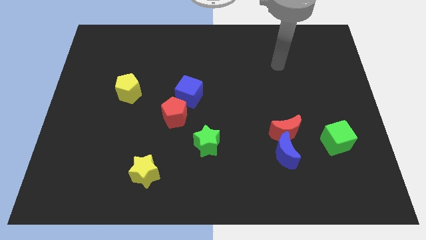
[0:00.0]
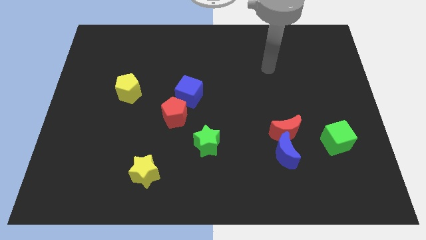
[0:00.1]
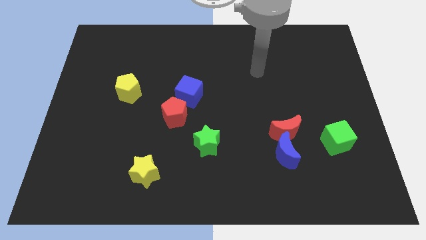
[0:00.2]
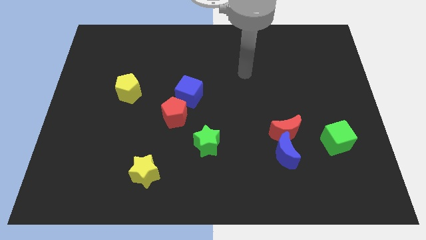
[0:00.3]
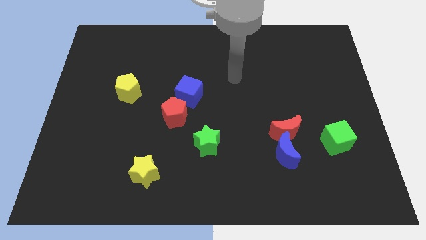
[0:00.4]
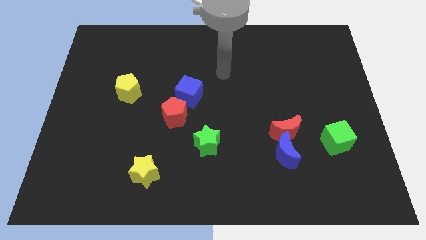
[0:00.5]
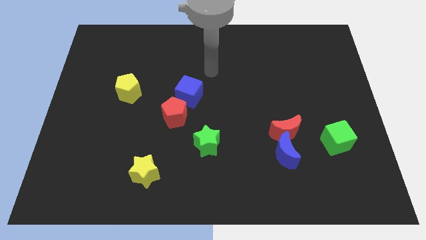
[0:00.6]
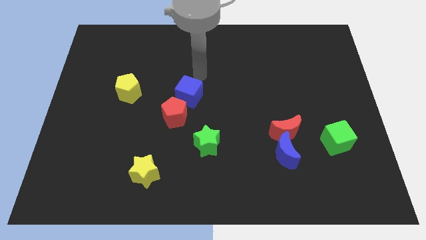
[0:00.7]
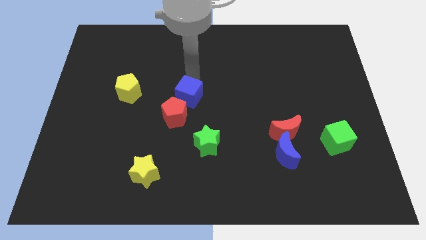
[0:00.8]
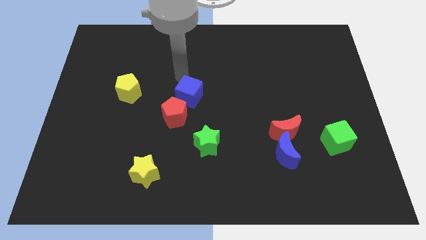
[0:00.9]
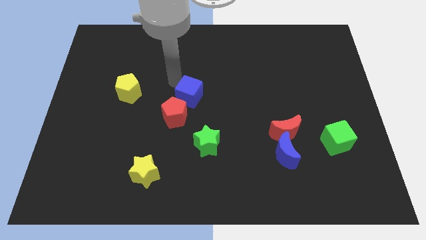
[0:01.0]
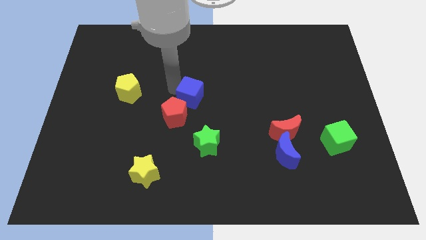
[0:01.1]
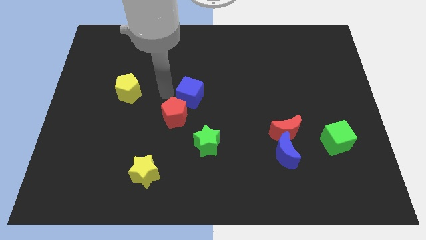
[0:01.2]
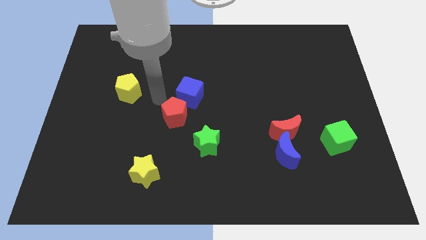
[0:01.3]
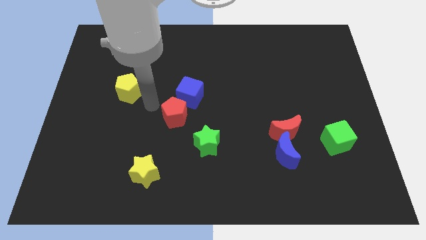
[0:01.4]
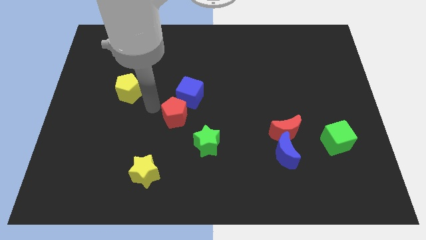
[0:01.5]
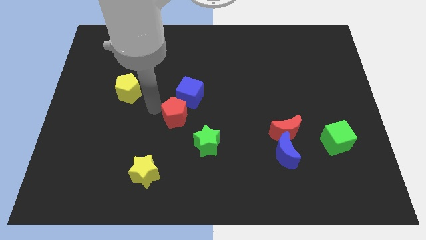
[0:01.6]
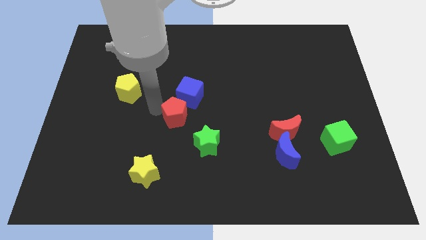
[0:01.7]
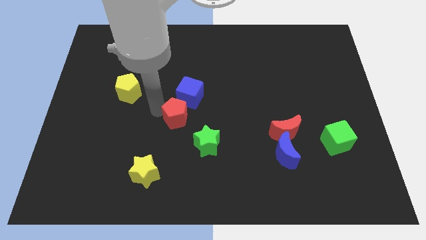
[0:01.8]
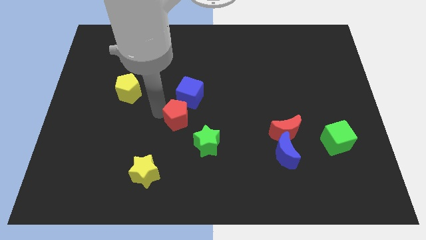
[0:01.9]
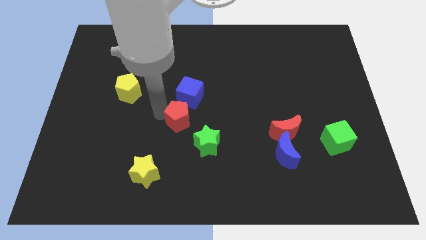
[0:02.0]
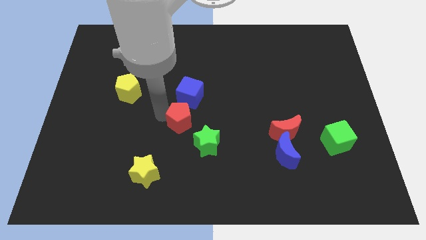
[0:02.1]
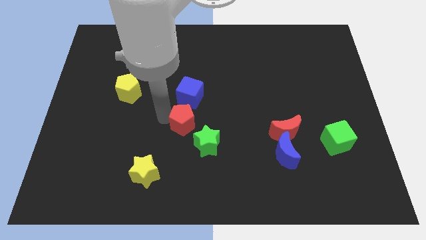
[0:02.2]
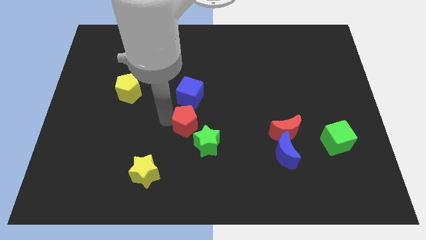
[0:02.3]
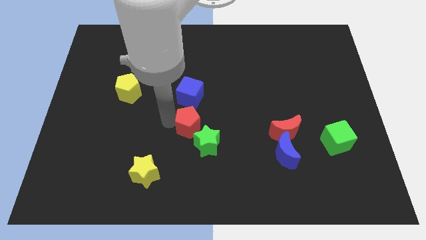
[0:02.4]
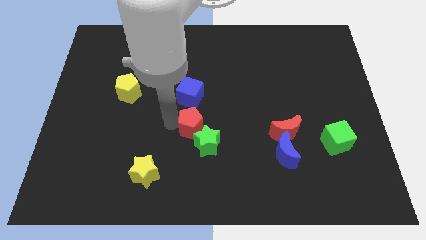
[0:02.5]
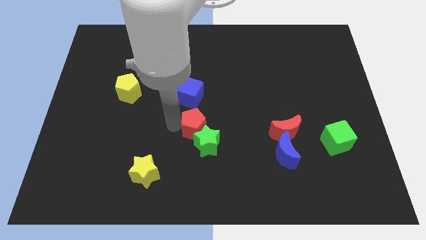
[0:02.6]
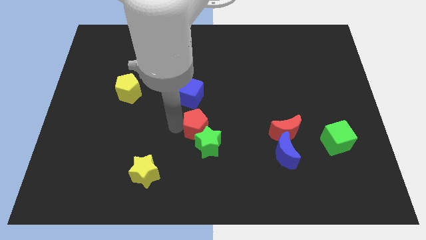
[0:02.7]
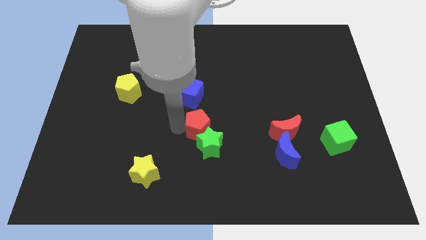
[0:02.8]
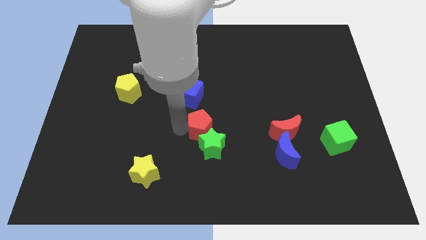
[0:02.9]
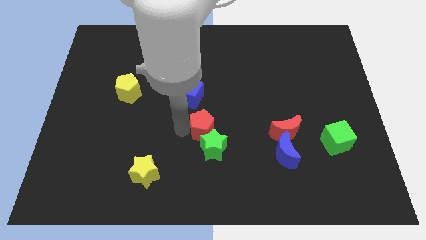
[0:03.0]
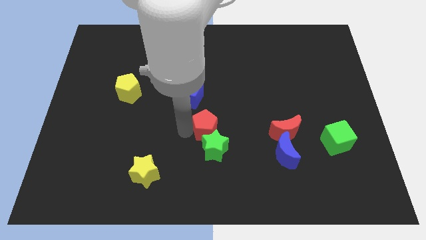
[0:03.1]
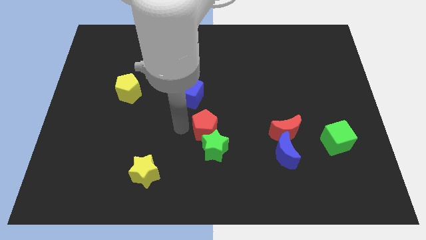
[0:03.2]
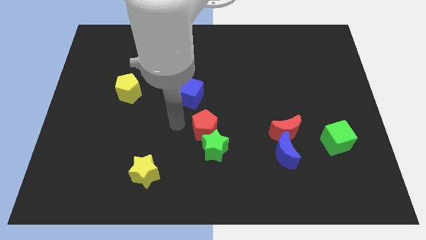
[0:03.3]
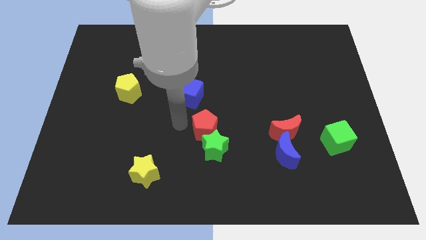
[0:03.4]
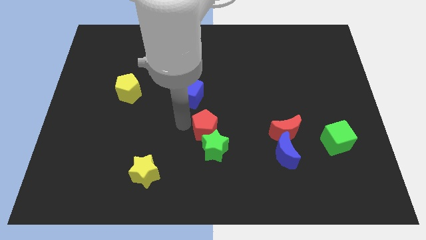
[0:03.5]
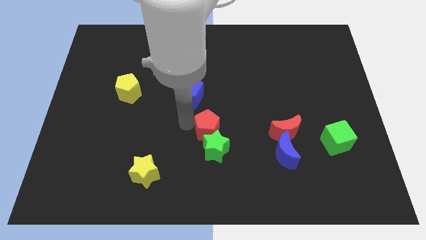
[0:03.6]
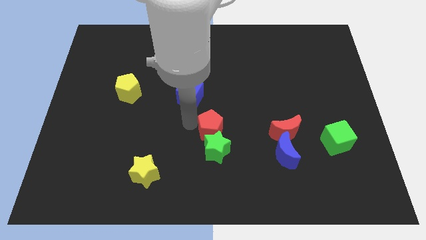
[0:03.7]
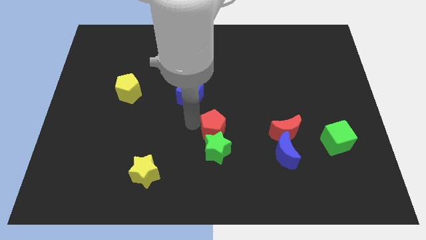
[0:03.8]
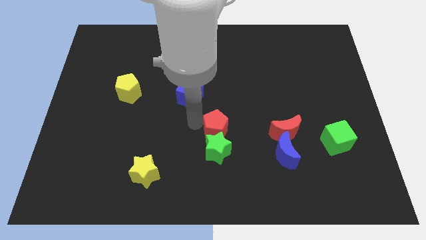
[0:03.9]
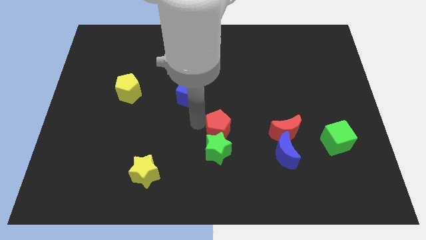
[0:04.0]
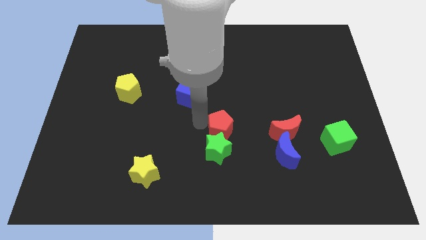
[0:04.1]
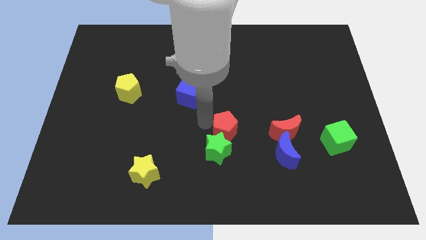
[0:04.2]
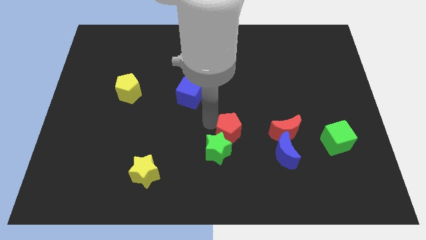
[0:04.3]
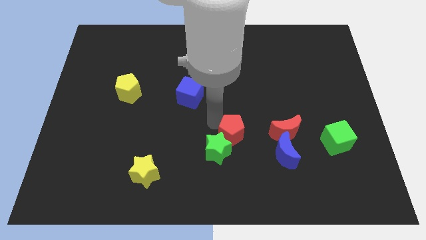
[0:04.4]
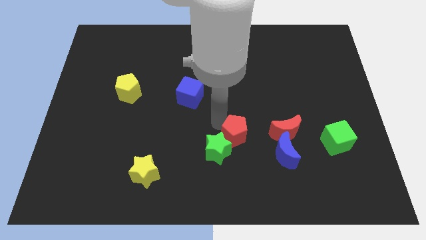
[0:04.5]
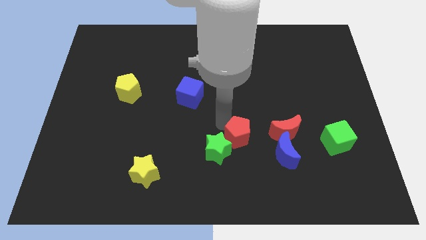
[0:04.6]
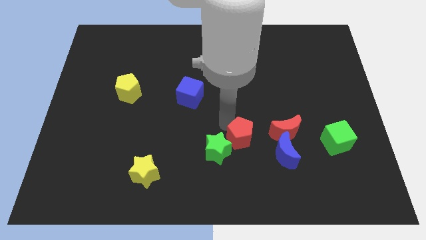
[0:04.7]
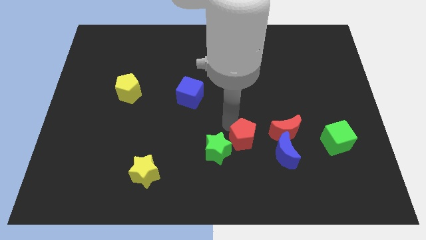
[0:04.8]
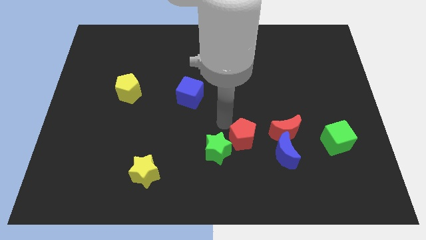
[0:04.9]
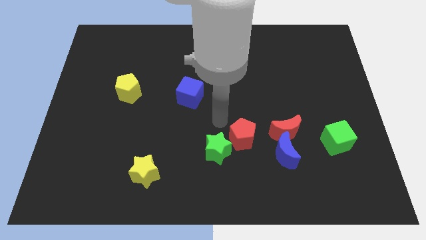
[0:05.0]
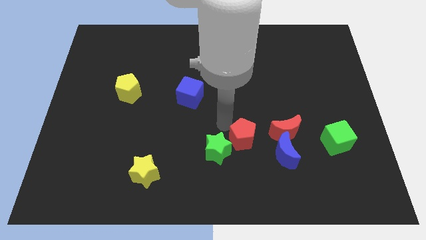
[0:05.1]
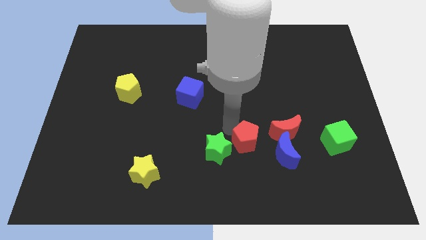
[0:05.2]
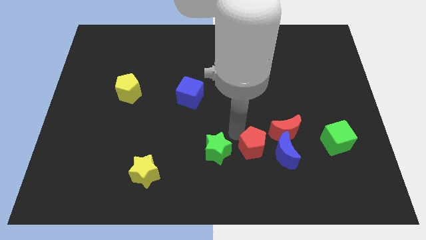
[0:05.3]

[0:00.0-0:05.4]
move the red pentagon diagonally down and to the left of the red moon

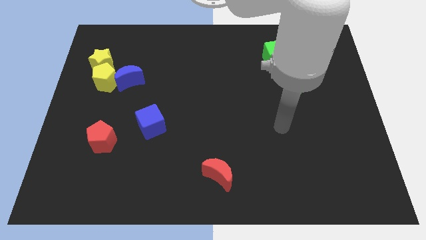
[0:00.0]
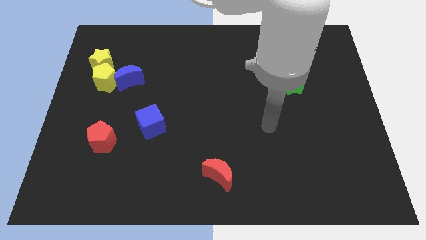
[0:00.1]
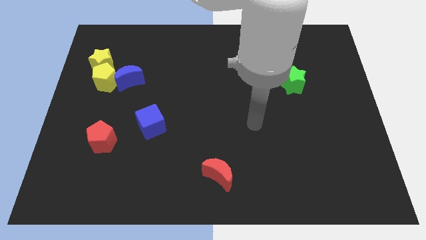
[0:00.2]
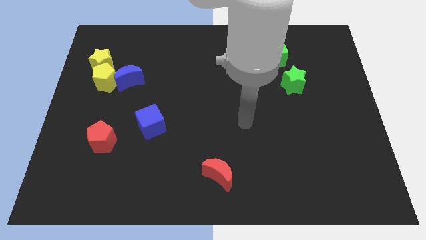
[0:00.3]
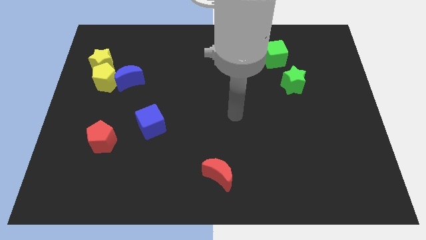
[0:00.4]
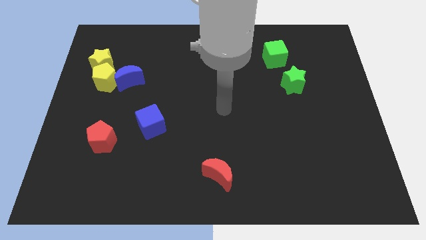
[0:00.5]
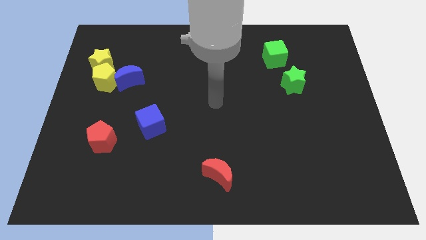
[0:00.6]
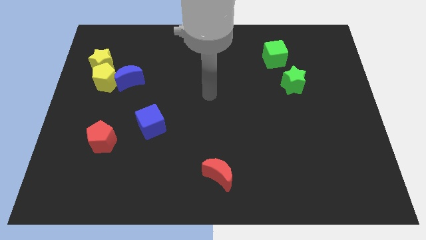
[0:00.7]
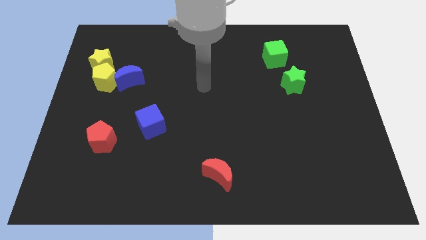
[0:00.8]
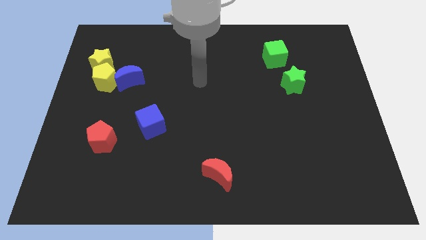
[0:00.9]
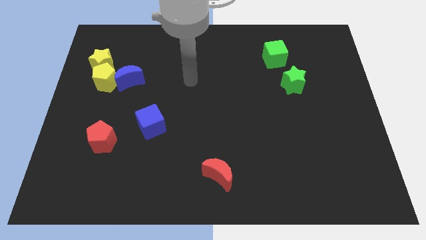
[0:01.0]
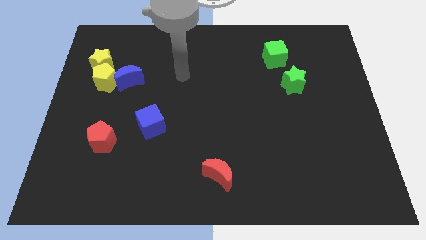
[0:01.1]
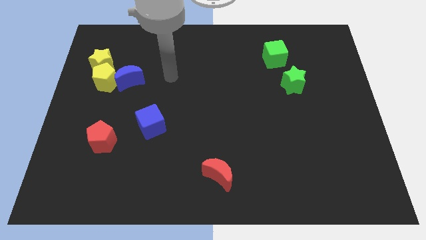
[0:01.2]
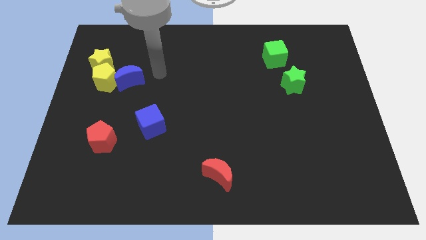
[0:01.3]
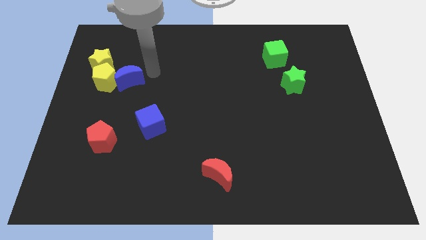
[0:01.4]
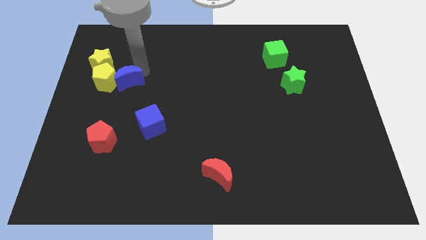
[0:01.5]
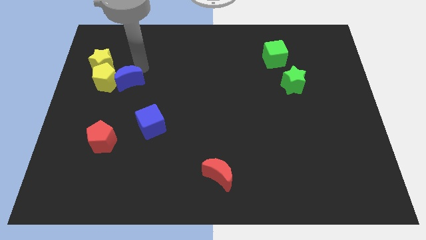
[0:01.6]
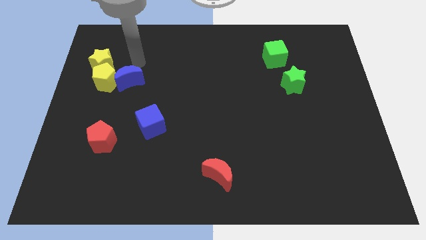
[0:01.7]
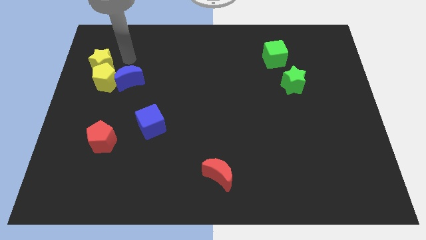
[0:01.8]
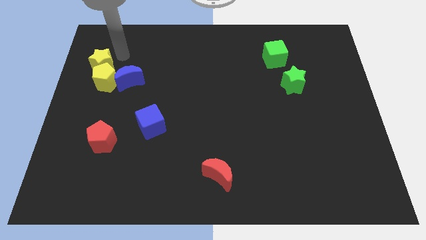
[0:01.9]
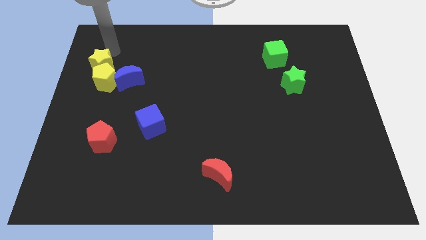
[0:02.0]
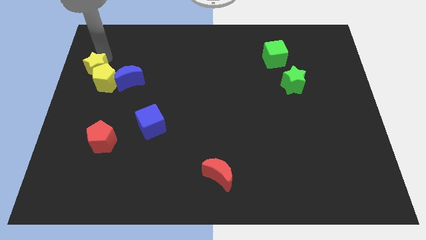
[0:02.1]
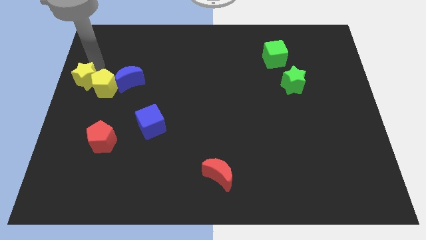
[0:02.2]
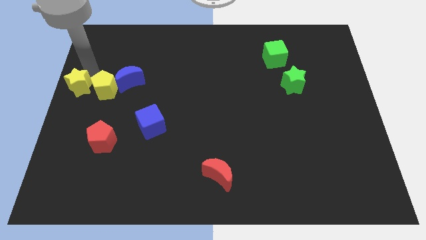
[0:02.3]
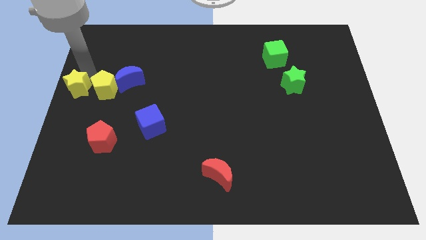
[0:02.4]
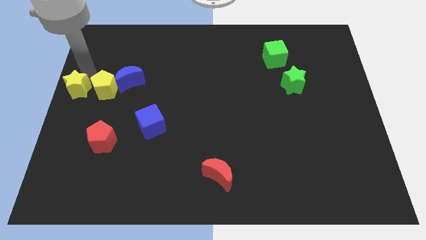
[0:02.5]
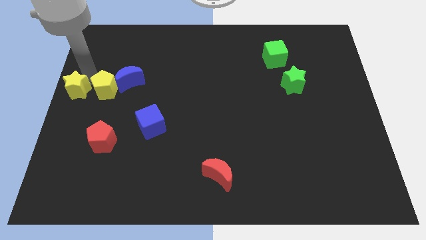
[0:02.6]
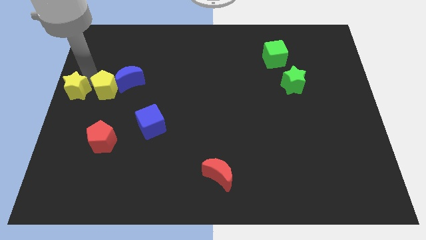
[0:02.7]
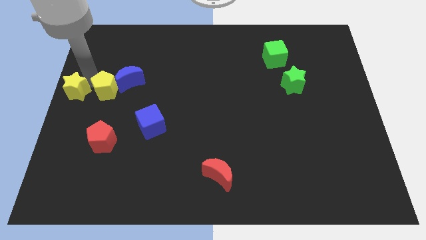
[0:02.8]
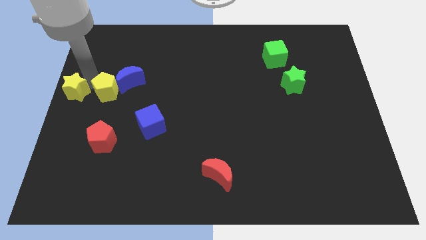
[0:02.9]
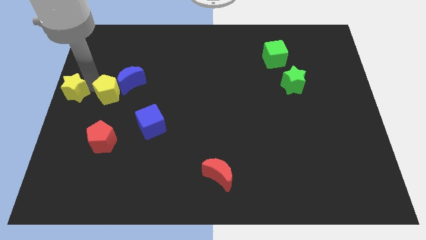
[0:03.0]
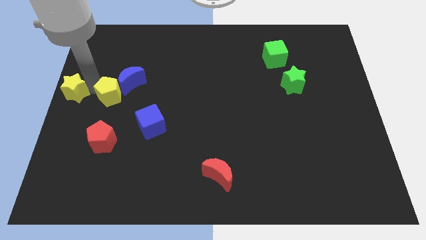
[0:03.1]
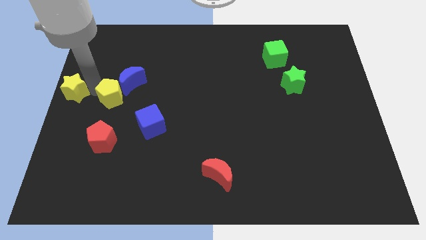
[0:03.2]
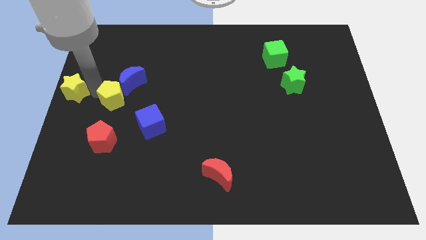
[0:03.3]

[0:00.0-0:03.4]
slide the yellow pentagon to the top left side of the blue cube
